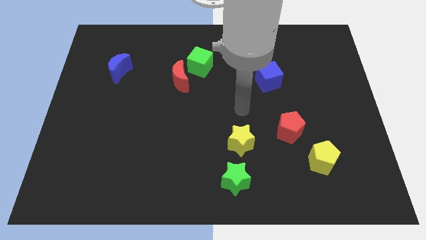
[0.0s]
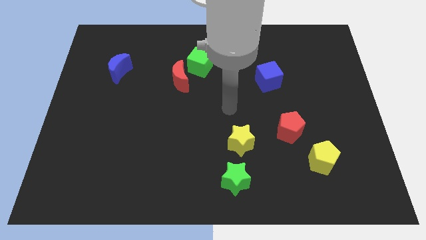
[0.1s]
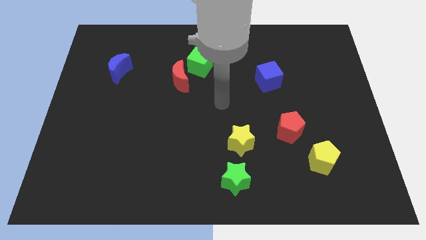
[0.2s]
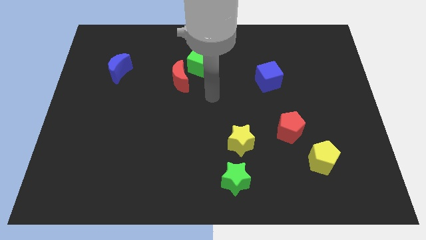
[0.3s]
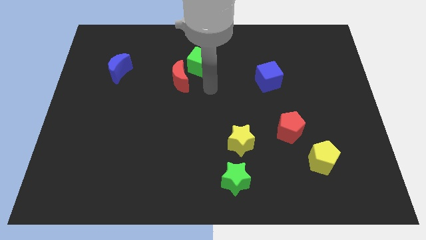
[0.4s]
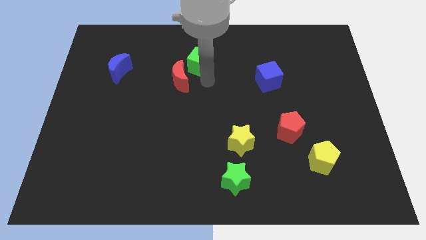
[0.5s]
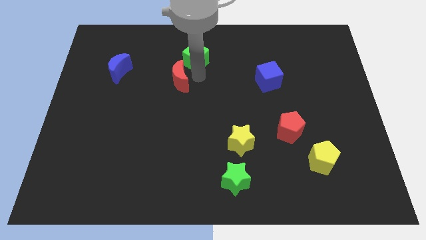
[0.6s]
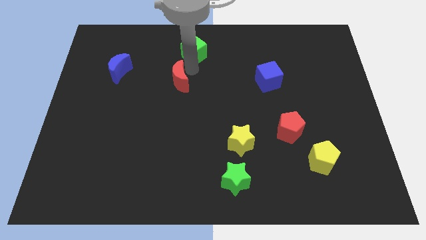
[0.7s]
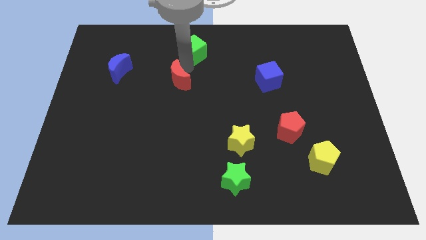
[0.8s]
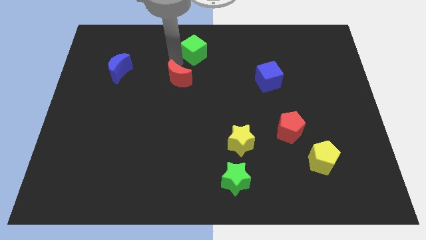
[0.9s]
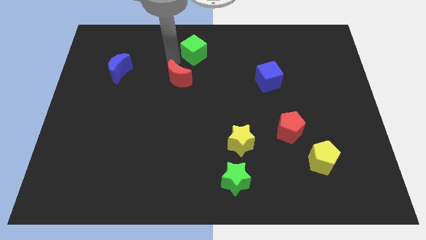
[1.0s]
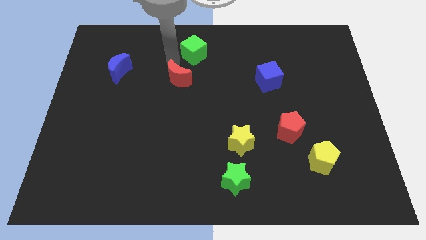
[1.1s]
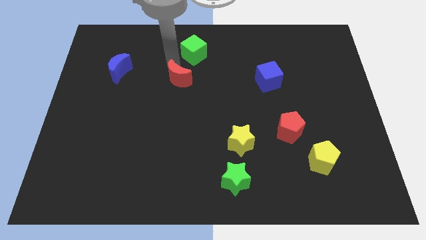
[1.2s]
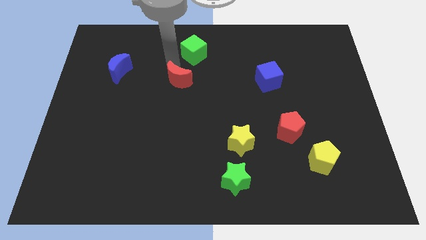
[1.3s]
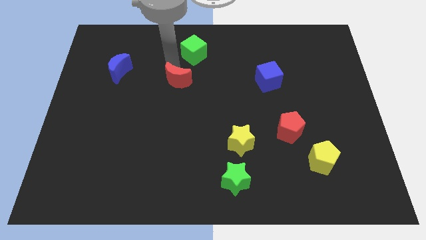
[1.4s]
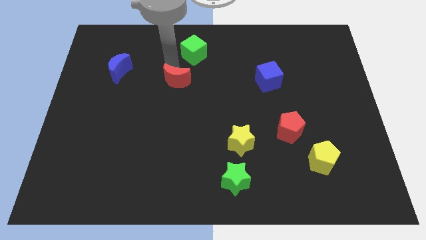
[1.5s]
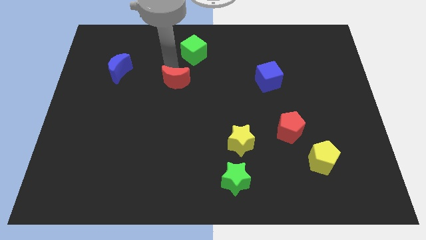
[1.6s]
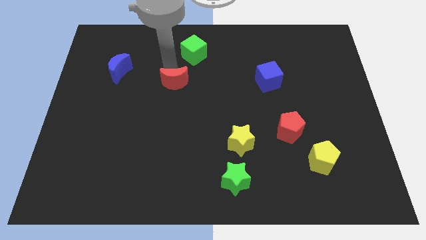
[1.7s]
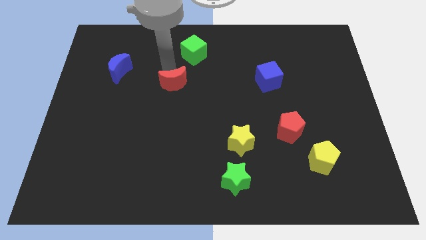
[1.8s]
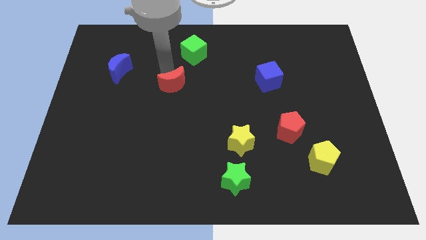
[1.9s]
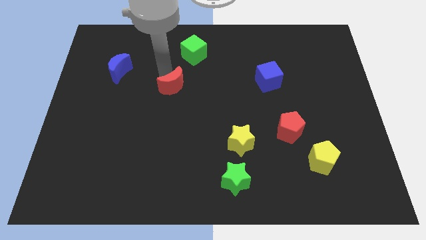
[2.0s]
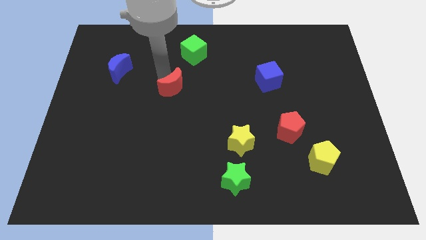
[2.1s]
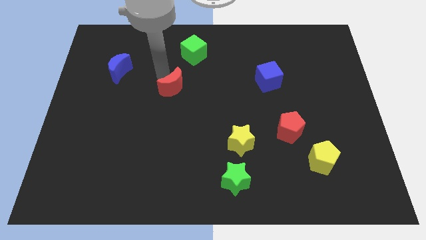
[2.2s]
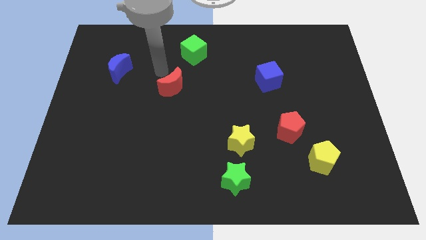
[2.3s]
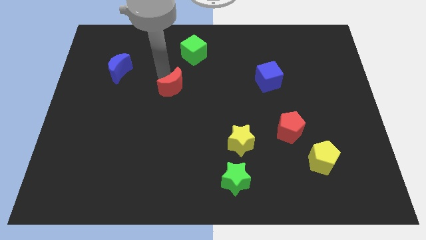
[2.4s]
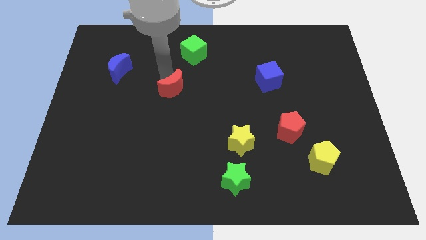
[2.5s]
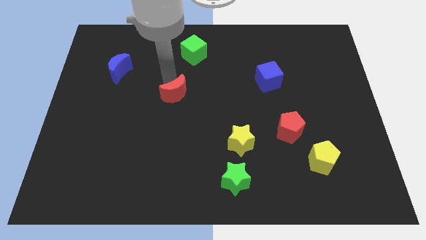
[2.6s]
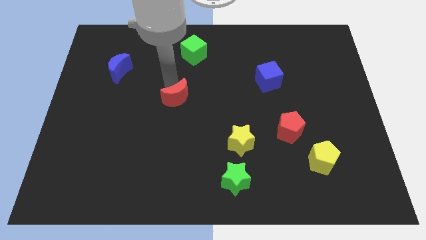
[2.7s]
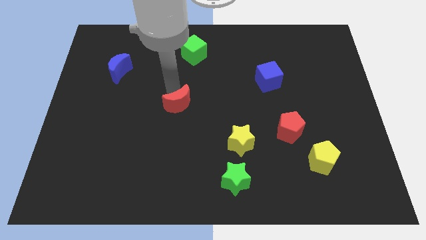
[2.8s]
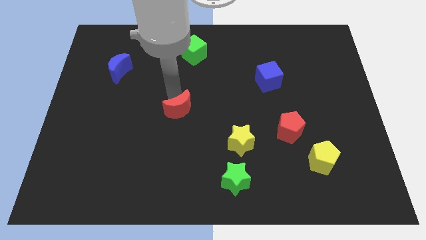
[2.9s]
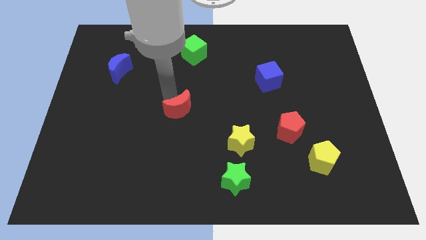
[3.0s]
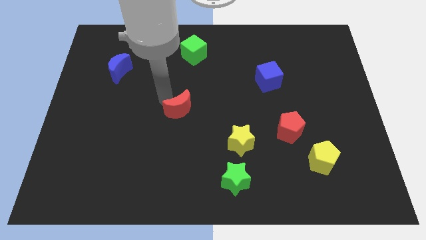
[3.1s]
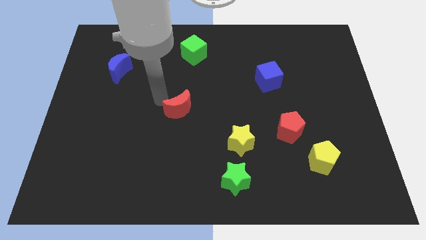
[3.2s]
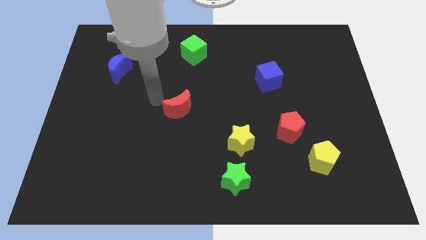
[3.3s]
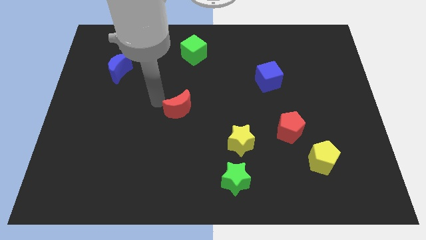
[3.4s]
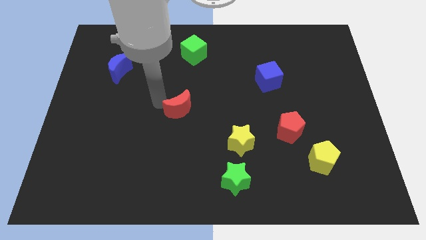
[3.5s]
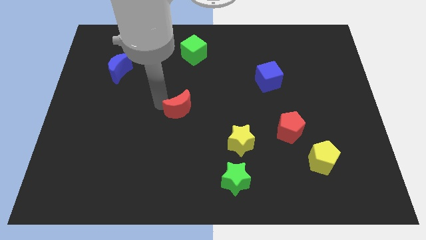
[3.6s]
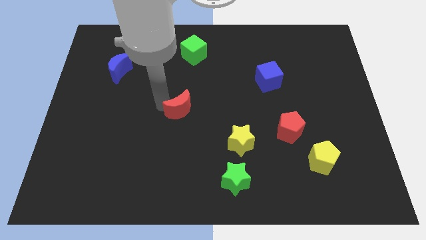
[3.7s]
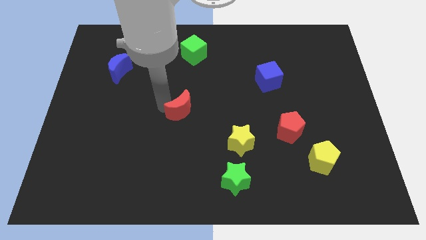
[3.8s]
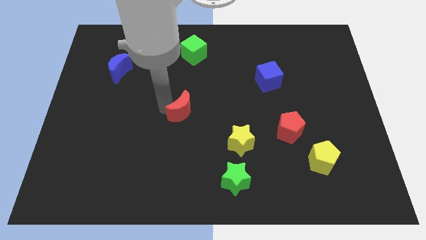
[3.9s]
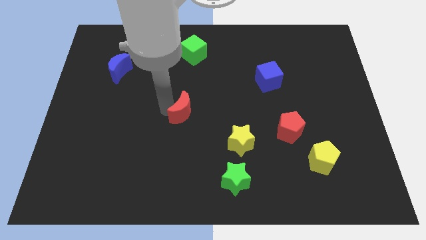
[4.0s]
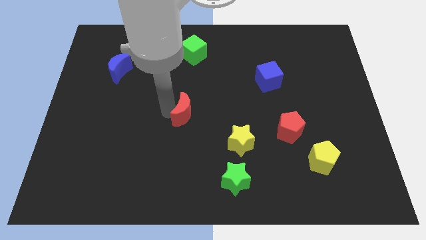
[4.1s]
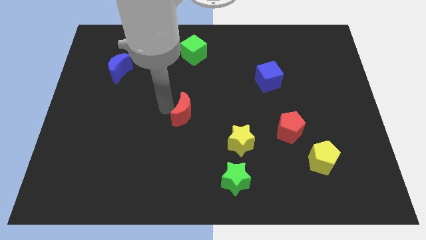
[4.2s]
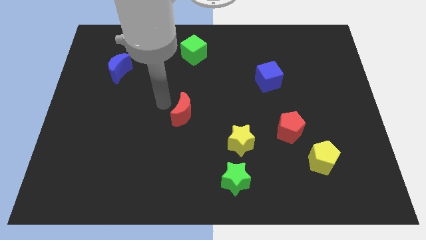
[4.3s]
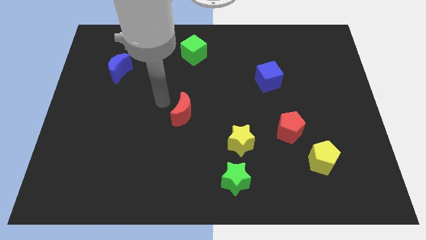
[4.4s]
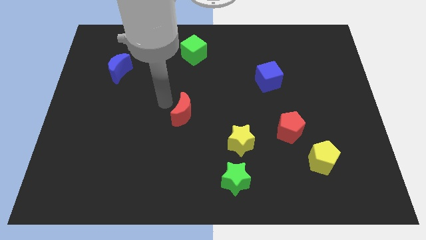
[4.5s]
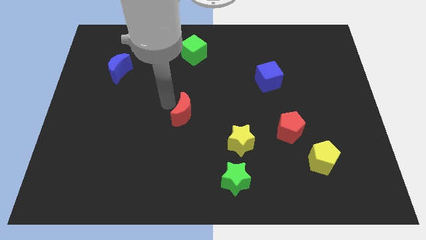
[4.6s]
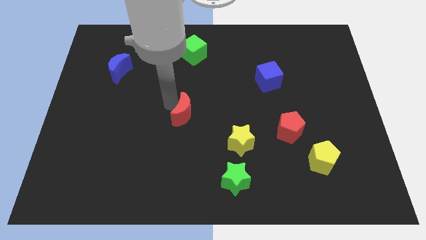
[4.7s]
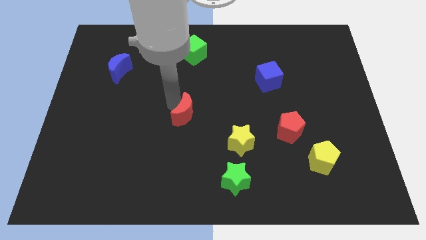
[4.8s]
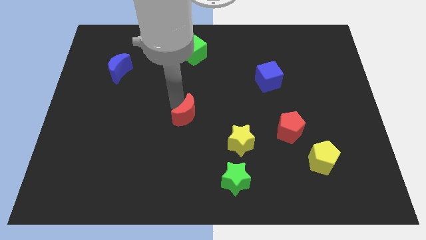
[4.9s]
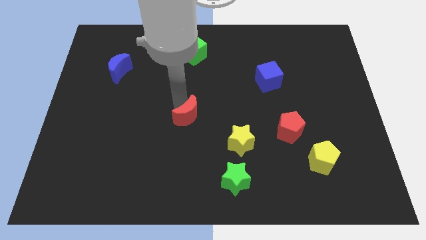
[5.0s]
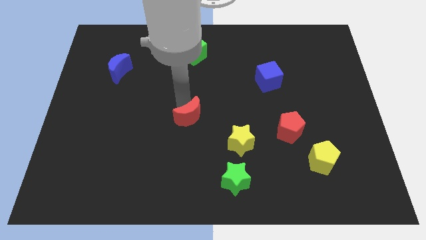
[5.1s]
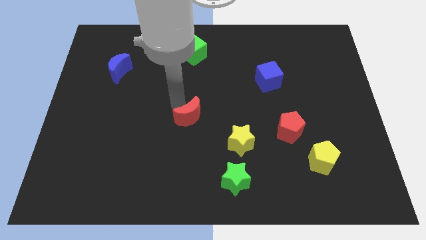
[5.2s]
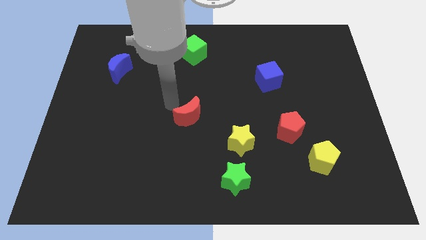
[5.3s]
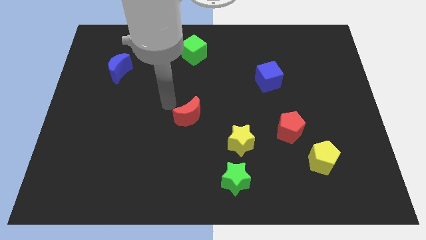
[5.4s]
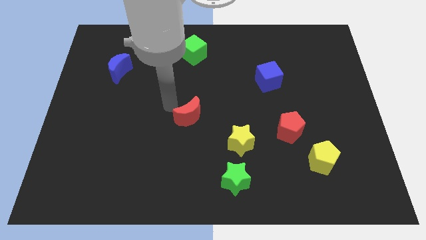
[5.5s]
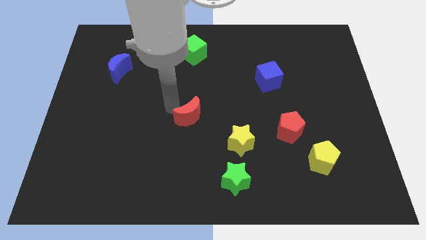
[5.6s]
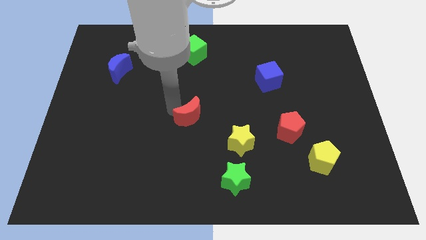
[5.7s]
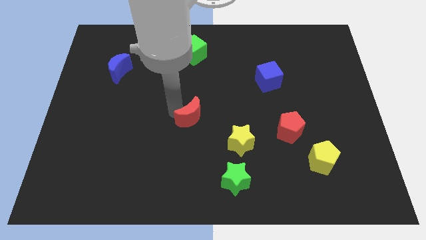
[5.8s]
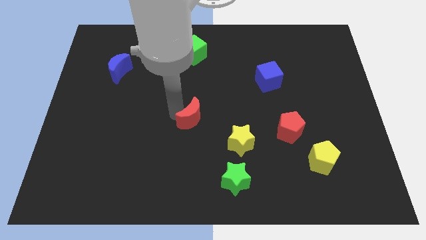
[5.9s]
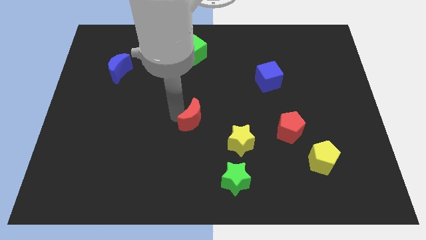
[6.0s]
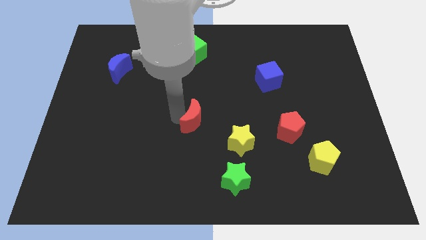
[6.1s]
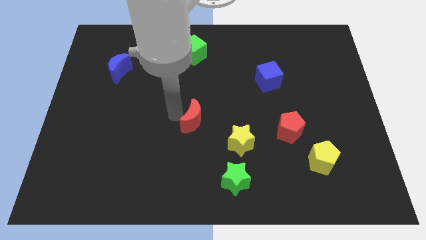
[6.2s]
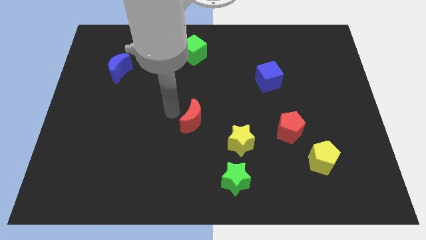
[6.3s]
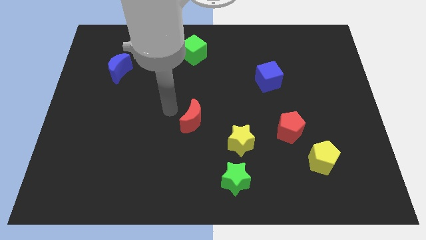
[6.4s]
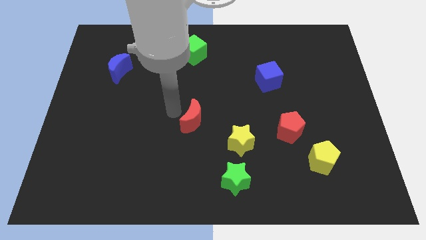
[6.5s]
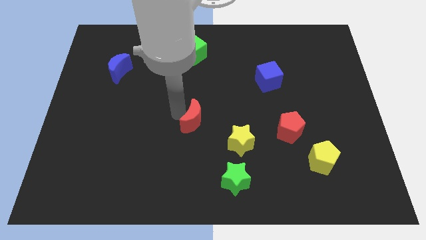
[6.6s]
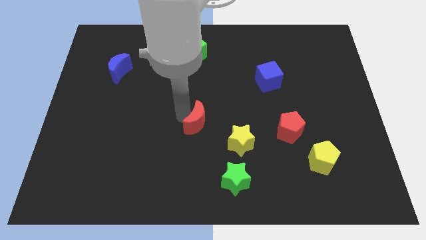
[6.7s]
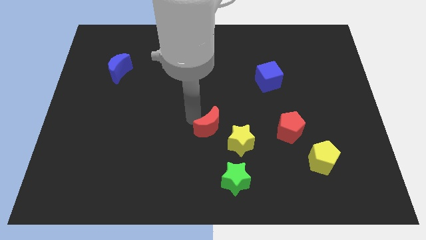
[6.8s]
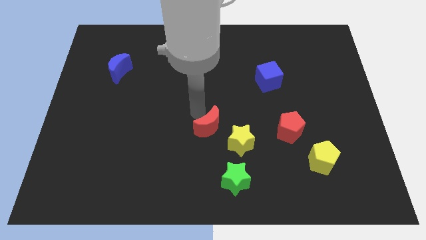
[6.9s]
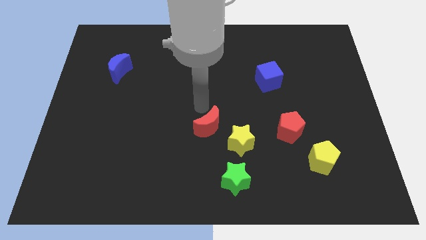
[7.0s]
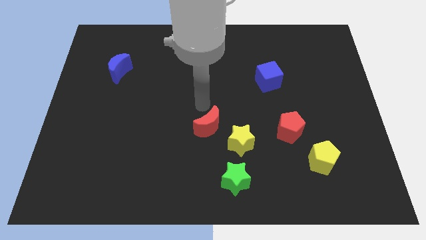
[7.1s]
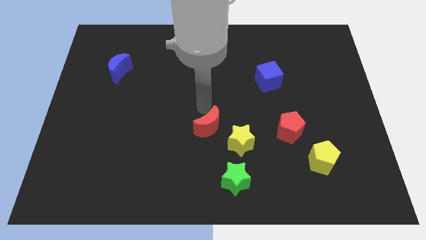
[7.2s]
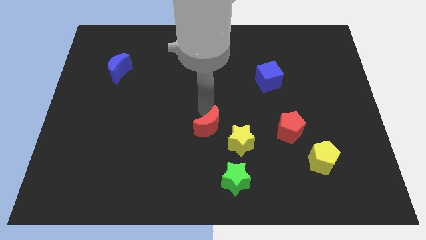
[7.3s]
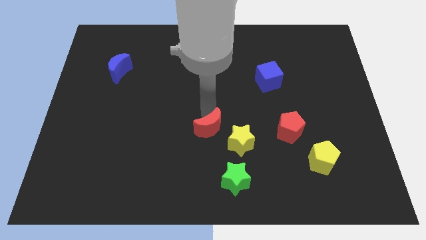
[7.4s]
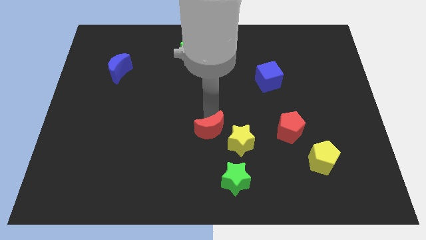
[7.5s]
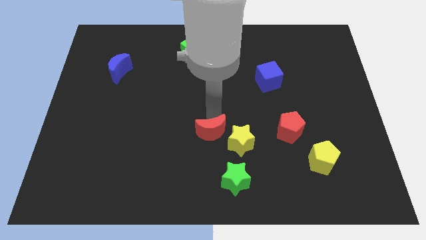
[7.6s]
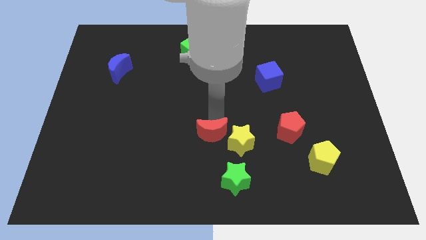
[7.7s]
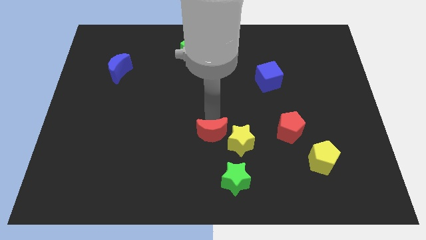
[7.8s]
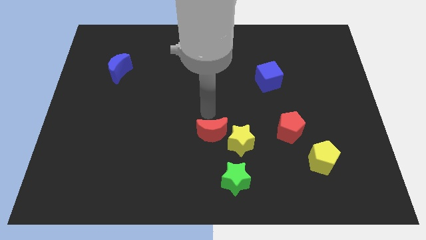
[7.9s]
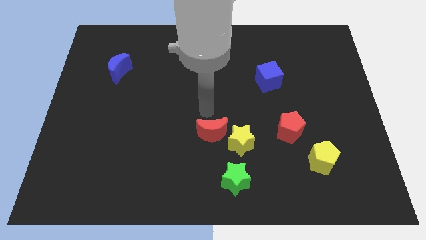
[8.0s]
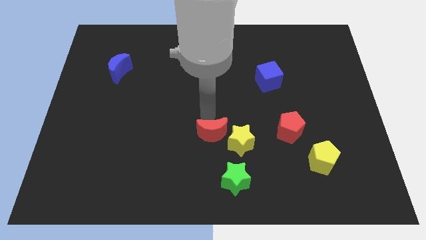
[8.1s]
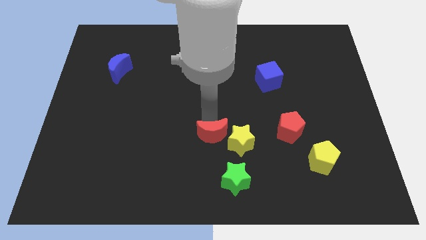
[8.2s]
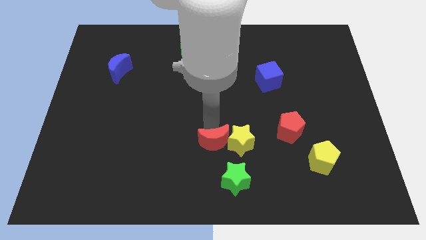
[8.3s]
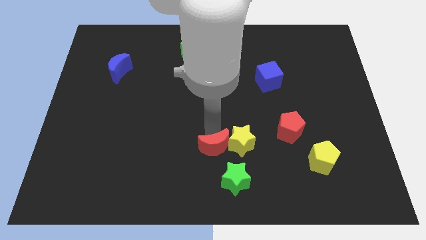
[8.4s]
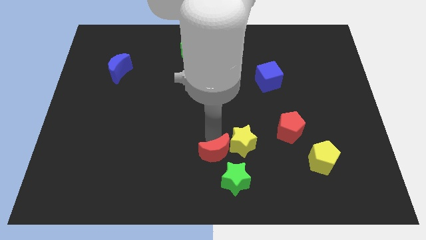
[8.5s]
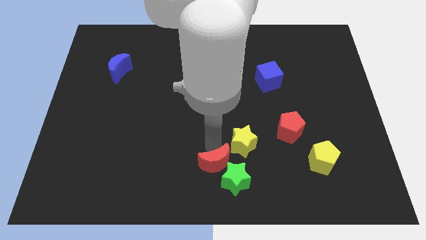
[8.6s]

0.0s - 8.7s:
move the red moon next to the green star
